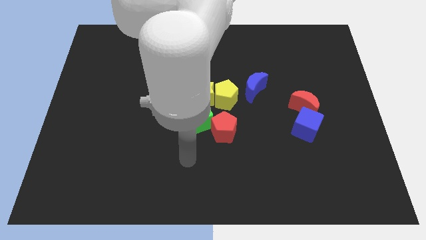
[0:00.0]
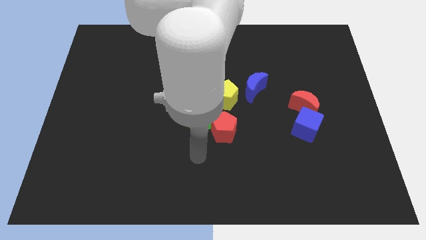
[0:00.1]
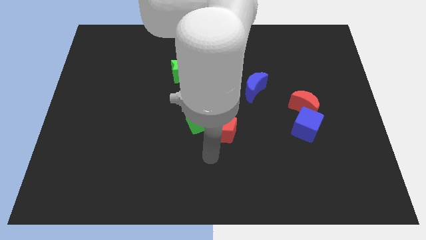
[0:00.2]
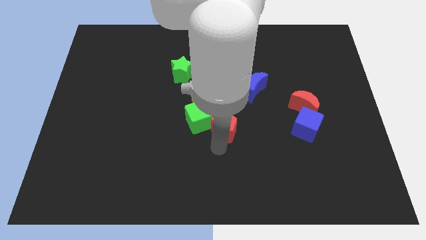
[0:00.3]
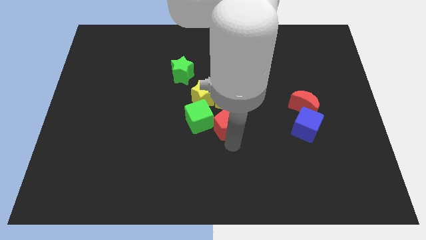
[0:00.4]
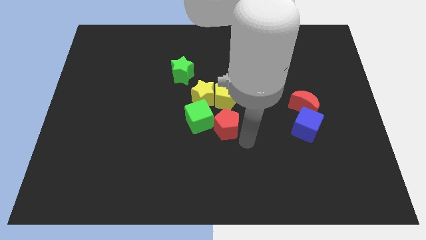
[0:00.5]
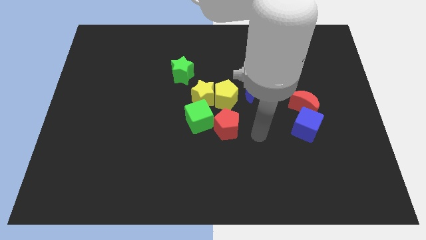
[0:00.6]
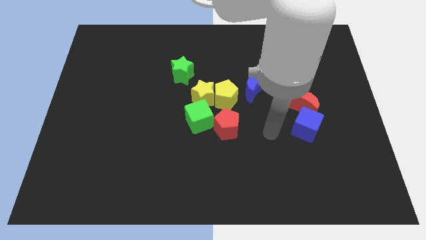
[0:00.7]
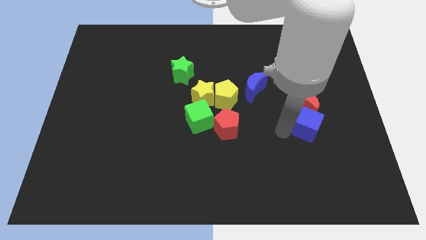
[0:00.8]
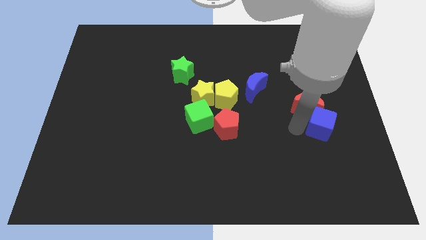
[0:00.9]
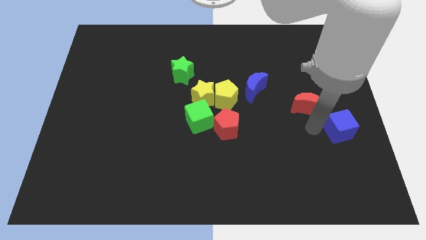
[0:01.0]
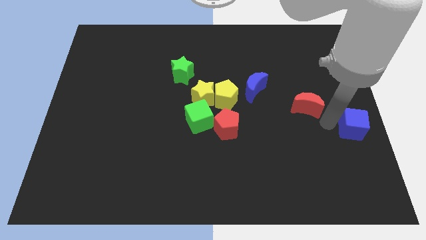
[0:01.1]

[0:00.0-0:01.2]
separate the red moon from the blue cube

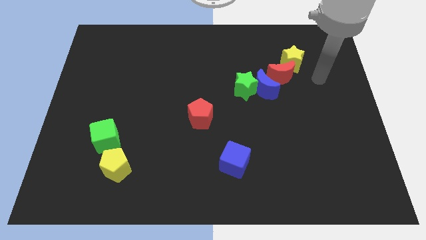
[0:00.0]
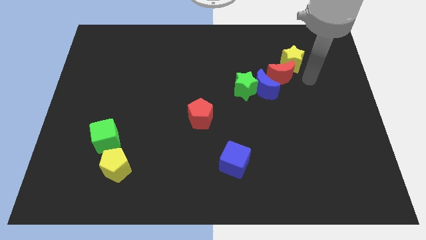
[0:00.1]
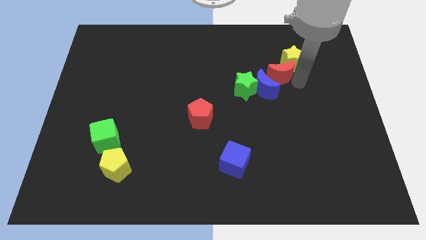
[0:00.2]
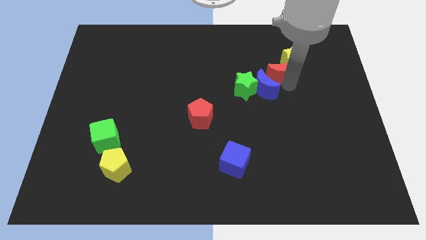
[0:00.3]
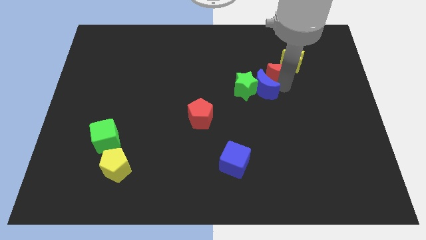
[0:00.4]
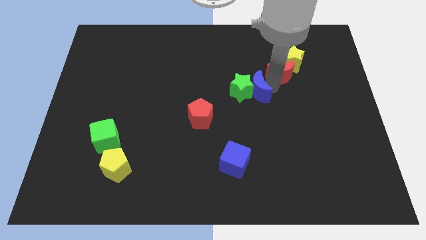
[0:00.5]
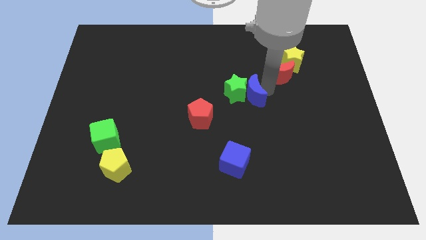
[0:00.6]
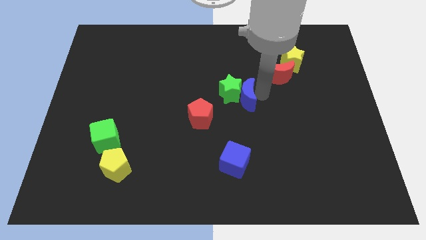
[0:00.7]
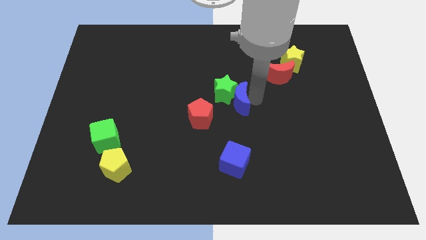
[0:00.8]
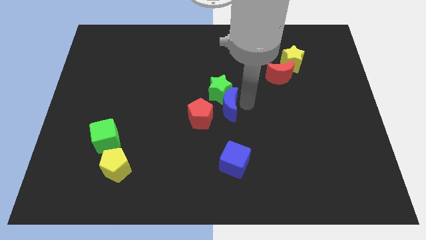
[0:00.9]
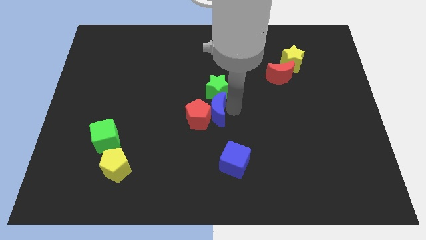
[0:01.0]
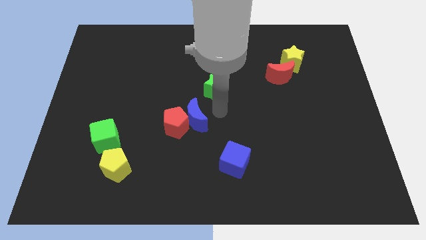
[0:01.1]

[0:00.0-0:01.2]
pull the green star apart from the blue moon

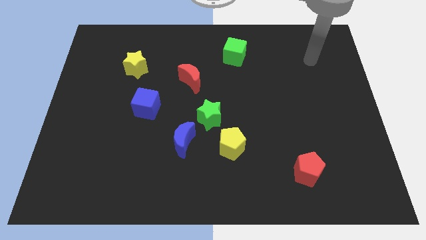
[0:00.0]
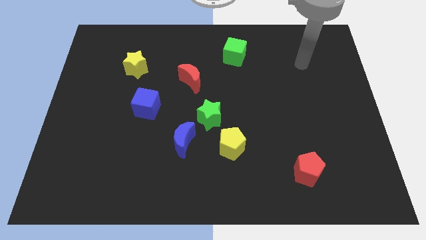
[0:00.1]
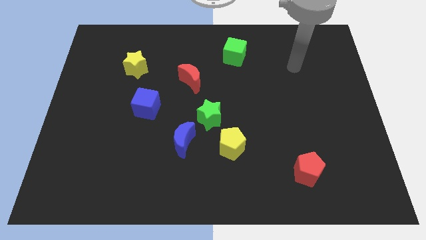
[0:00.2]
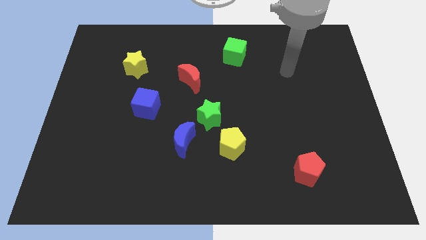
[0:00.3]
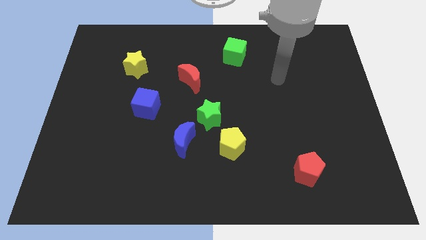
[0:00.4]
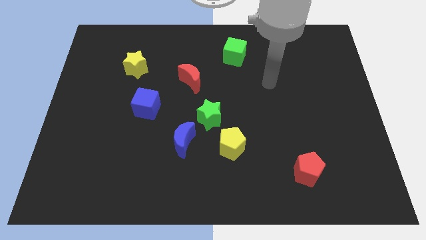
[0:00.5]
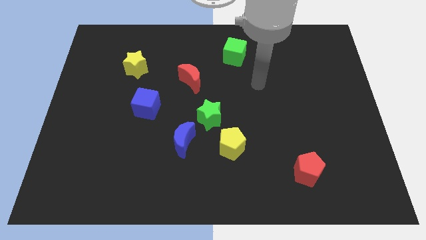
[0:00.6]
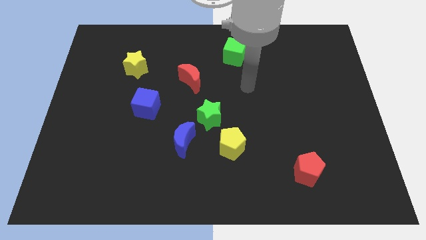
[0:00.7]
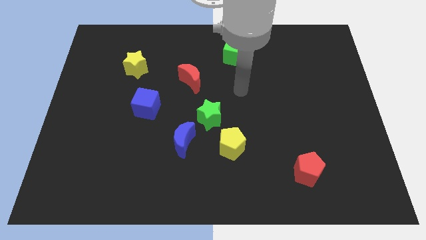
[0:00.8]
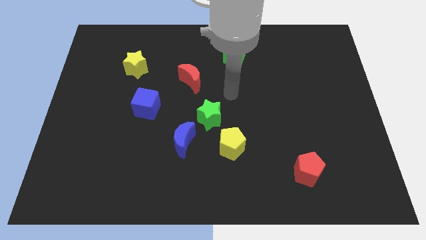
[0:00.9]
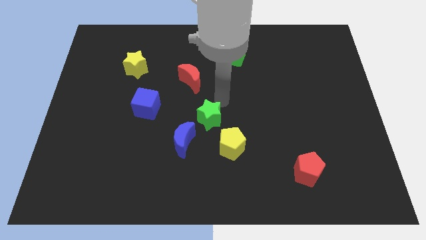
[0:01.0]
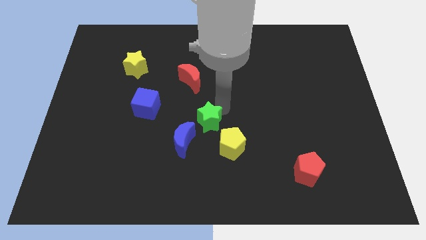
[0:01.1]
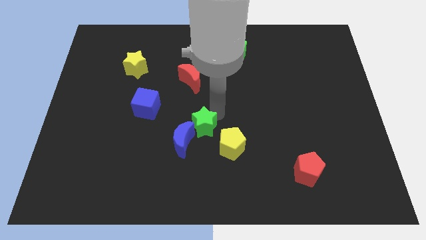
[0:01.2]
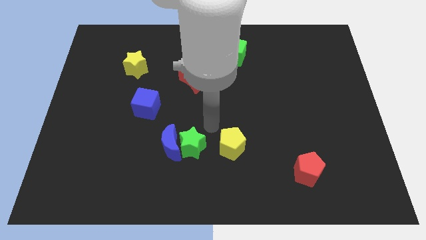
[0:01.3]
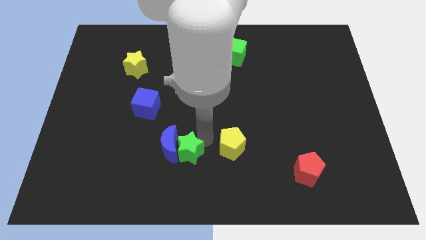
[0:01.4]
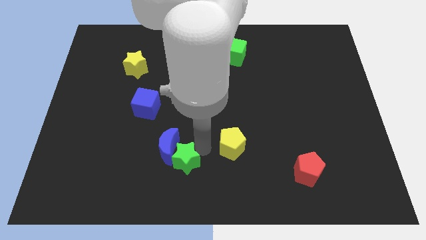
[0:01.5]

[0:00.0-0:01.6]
separate the yellow pentagon from the green star

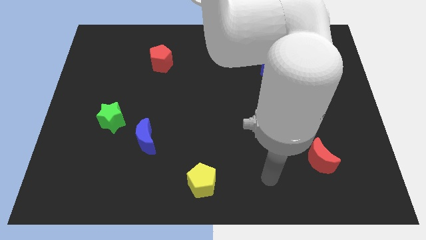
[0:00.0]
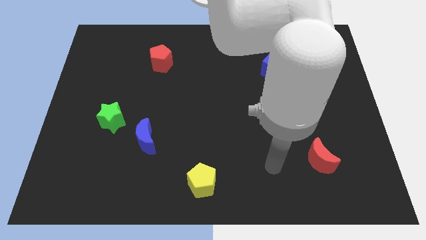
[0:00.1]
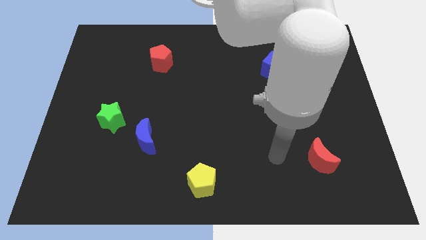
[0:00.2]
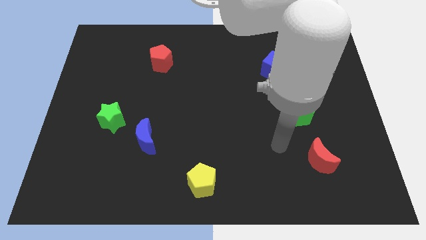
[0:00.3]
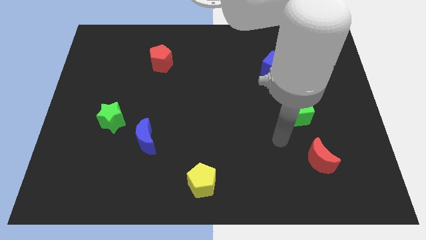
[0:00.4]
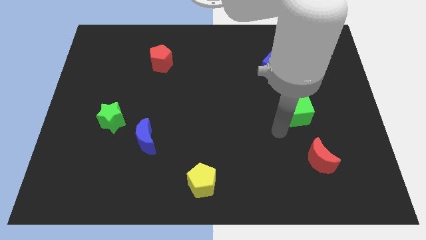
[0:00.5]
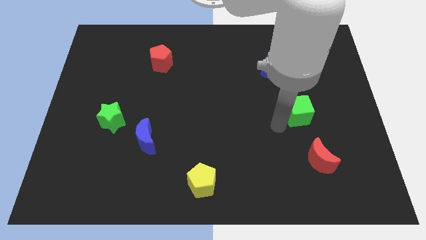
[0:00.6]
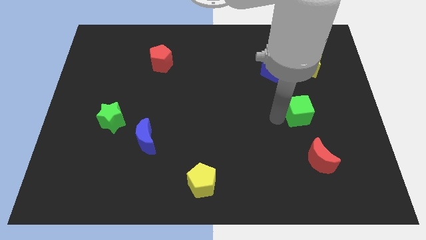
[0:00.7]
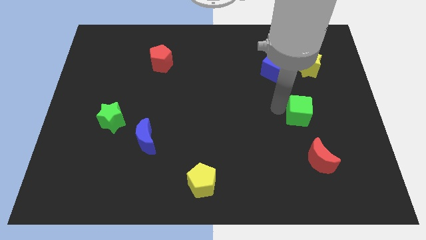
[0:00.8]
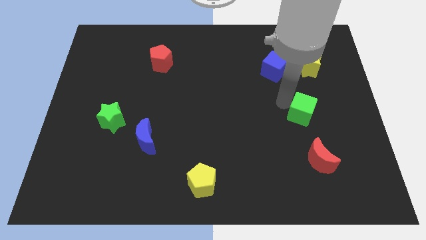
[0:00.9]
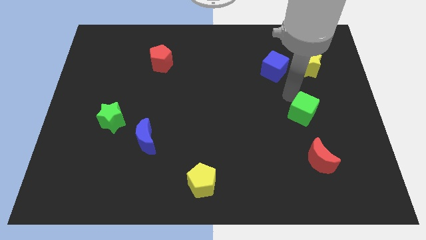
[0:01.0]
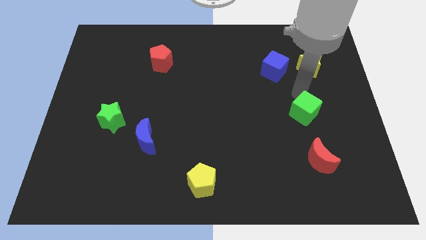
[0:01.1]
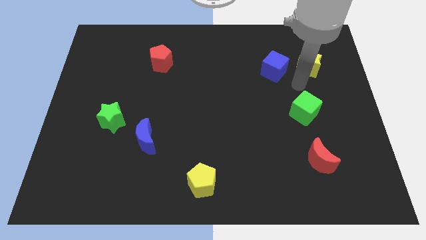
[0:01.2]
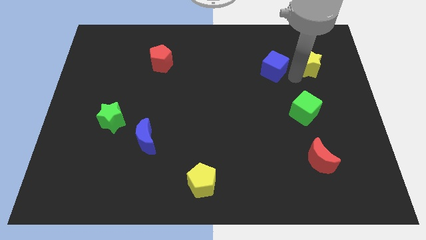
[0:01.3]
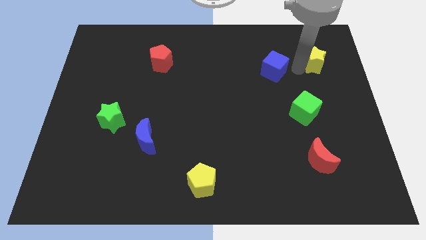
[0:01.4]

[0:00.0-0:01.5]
pull the blue cube apart from the yellow star

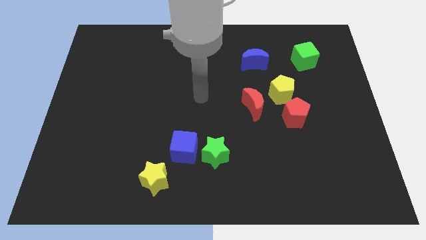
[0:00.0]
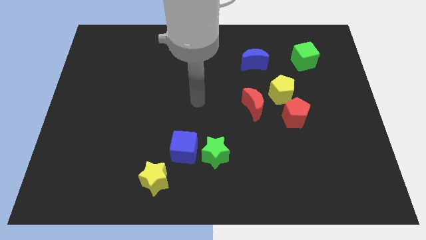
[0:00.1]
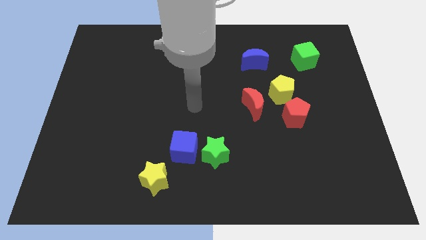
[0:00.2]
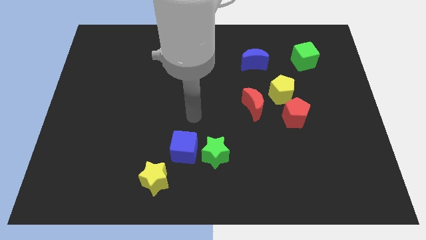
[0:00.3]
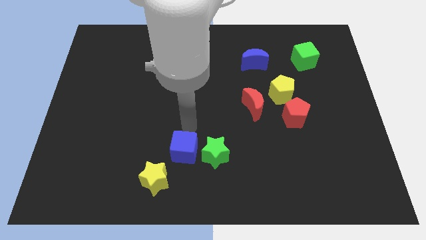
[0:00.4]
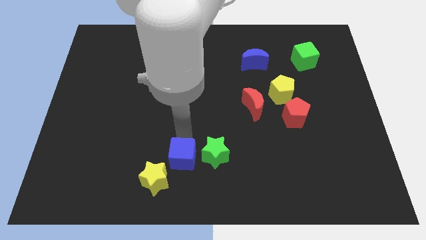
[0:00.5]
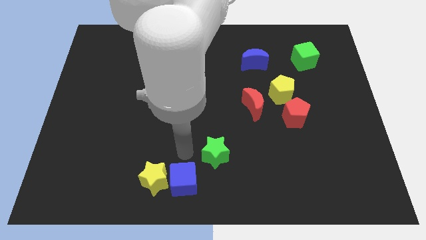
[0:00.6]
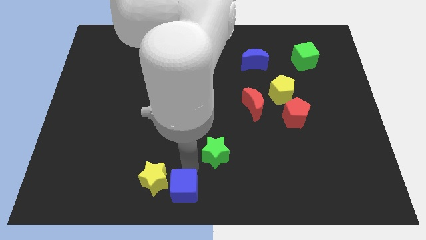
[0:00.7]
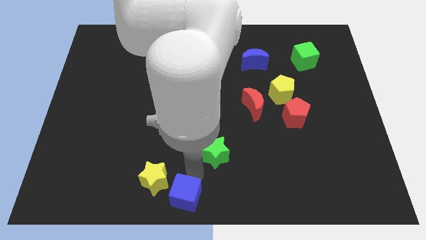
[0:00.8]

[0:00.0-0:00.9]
move the green star away from the blue cube

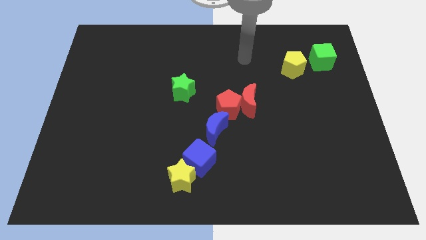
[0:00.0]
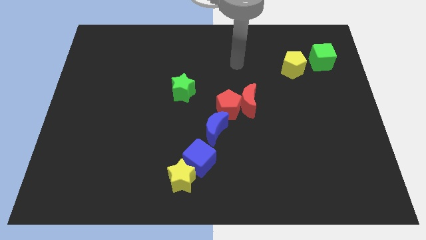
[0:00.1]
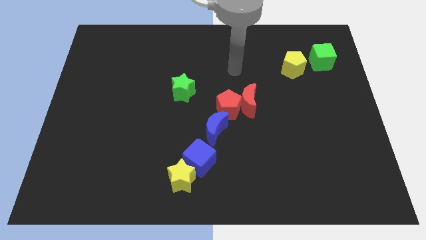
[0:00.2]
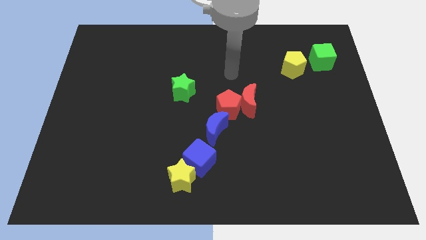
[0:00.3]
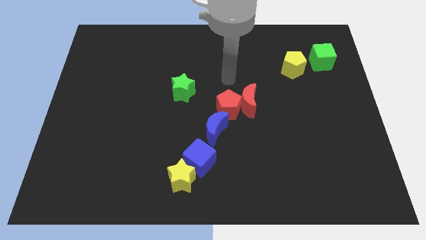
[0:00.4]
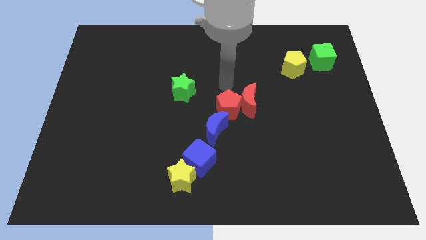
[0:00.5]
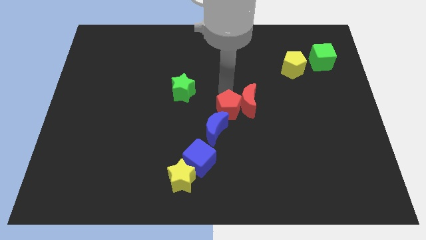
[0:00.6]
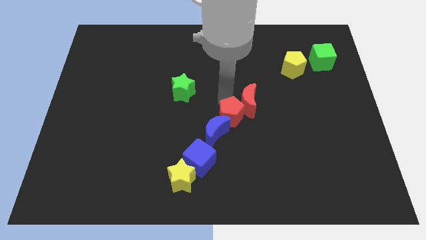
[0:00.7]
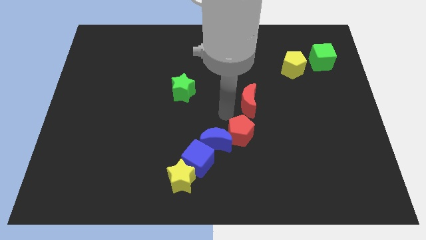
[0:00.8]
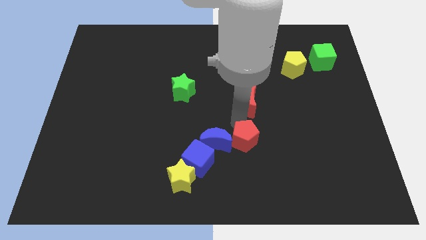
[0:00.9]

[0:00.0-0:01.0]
pull the red moon apart from the red pentagon

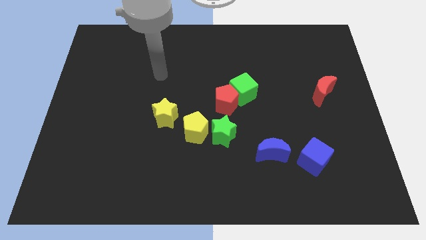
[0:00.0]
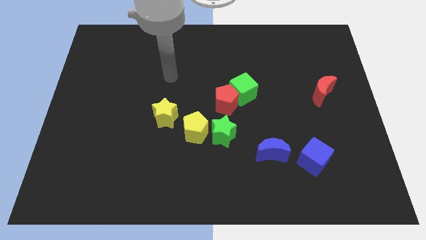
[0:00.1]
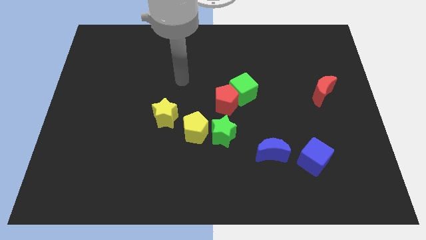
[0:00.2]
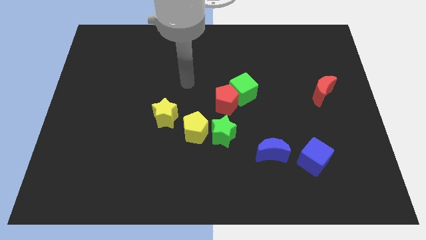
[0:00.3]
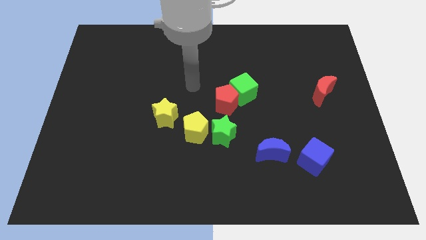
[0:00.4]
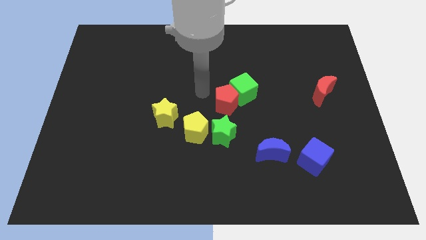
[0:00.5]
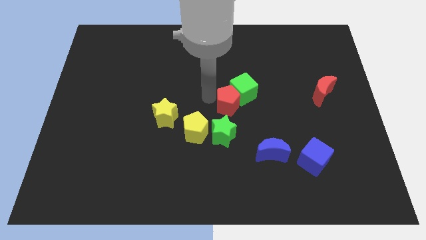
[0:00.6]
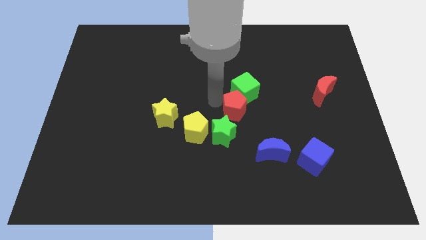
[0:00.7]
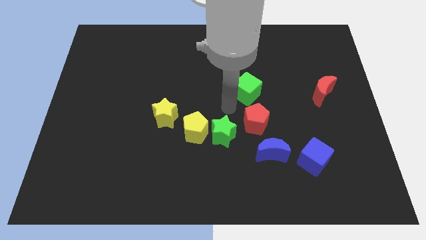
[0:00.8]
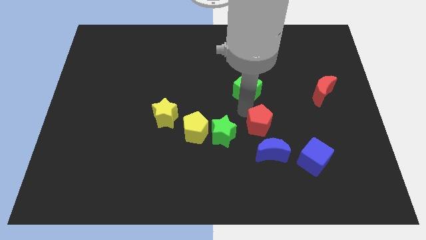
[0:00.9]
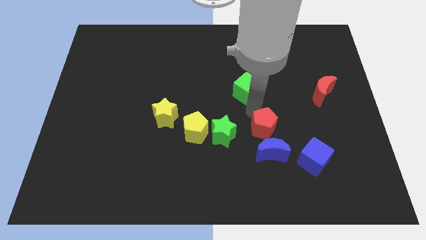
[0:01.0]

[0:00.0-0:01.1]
move the green cube away from the red pentagon

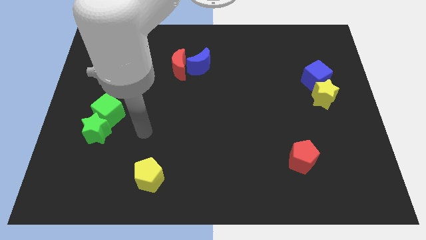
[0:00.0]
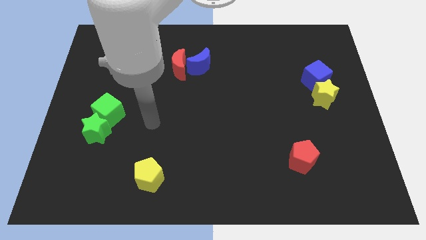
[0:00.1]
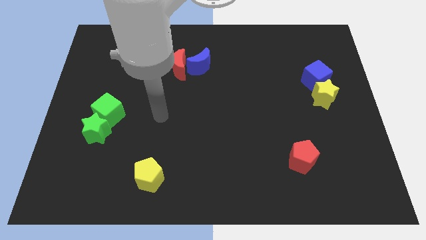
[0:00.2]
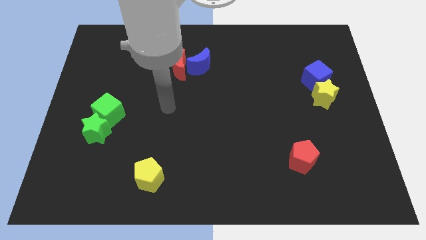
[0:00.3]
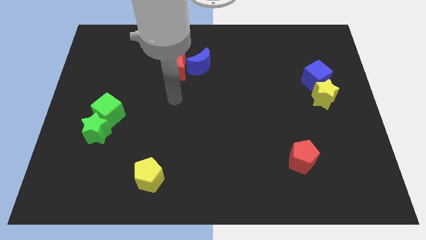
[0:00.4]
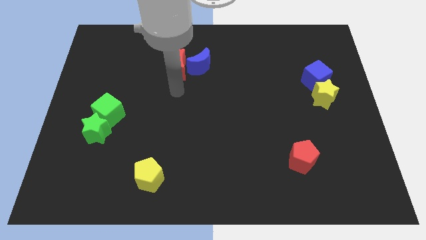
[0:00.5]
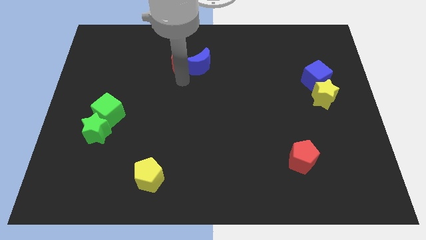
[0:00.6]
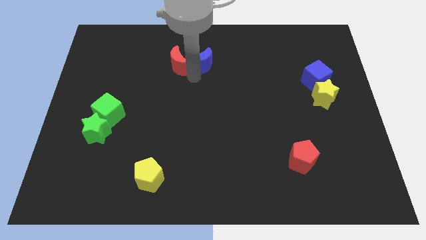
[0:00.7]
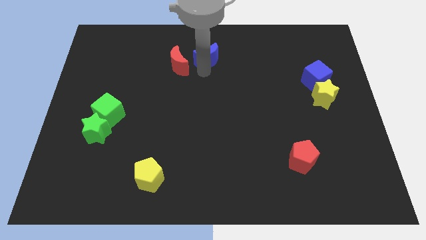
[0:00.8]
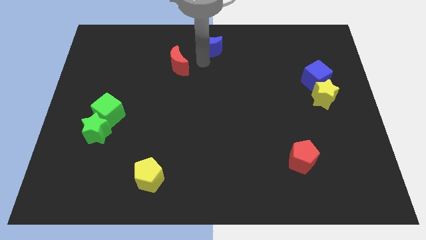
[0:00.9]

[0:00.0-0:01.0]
move the red moon away from the blue moon
